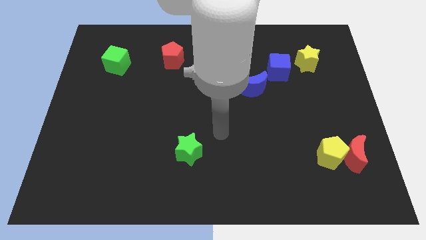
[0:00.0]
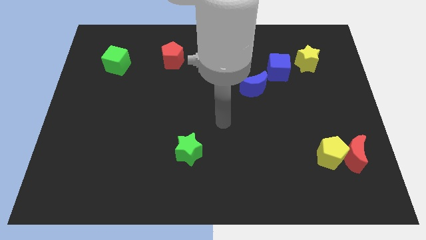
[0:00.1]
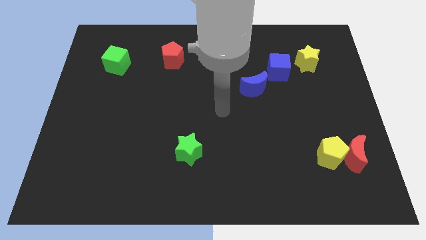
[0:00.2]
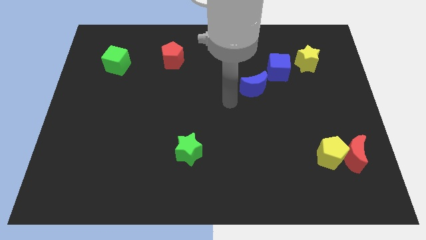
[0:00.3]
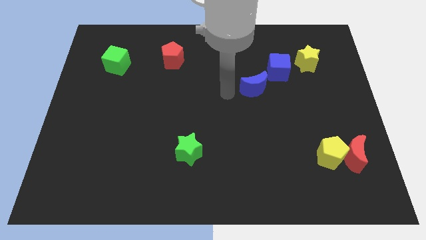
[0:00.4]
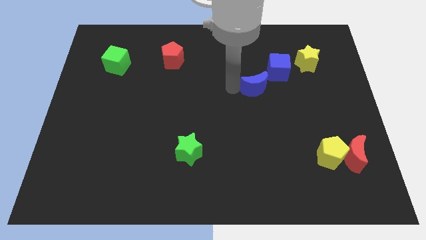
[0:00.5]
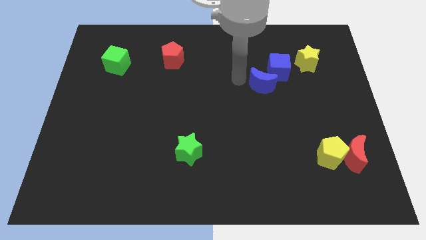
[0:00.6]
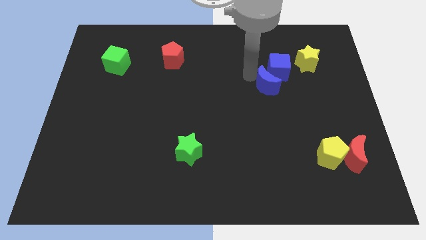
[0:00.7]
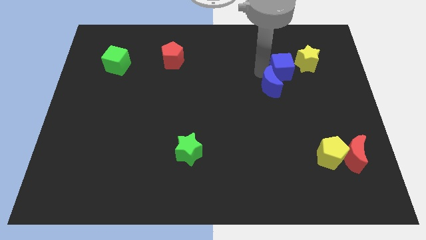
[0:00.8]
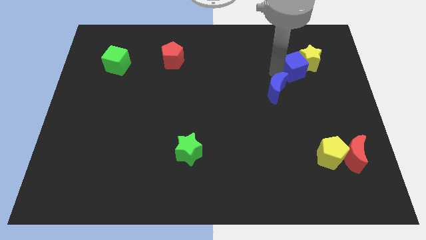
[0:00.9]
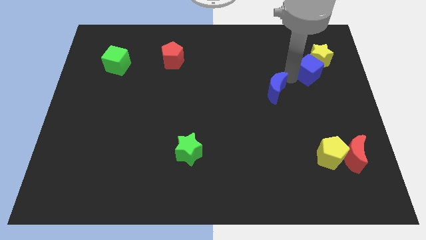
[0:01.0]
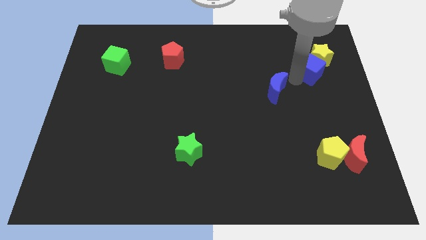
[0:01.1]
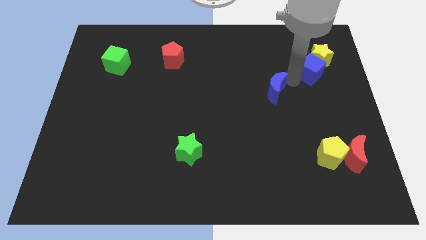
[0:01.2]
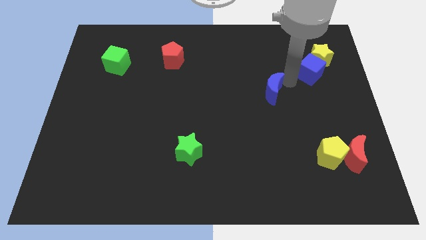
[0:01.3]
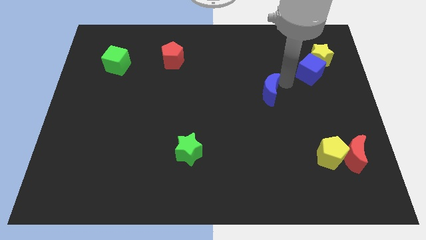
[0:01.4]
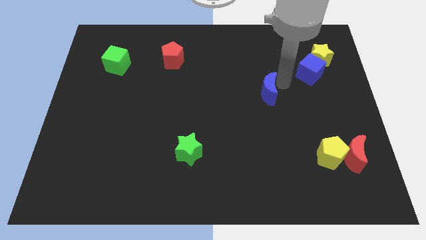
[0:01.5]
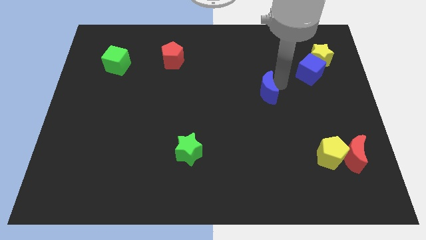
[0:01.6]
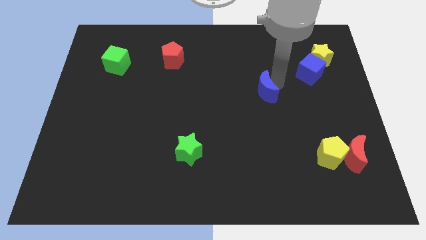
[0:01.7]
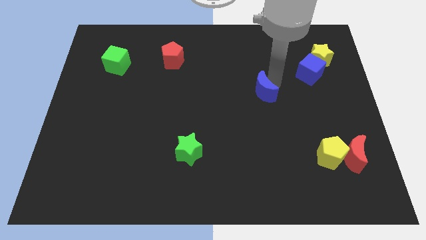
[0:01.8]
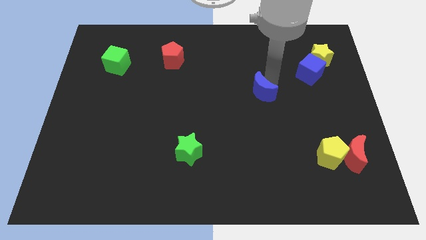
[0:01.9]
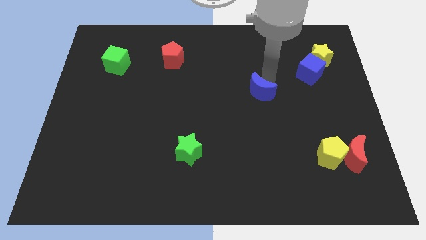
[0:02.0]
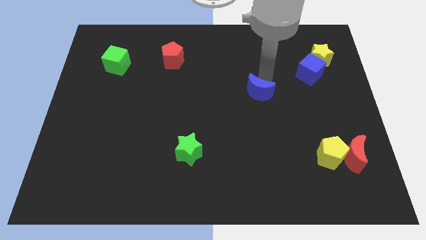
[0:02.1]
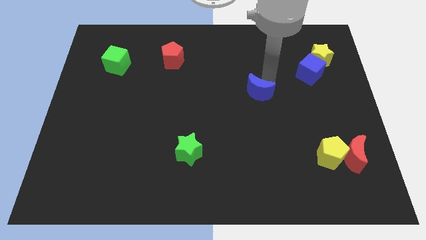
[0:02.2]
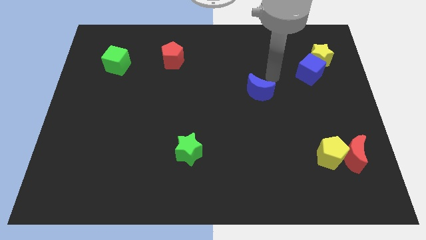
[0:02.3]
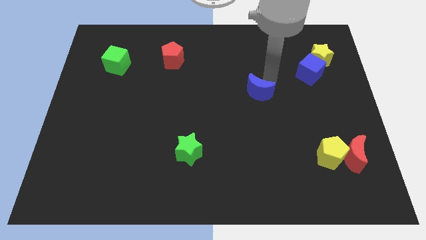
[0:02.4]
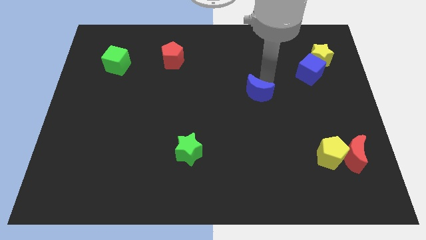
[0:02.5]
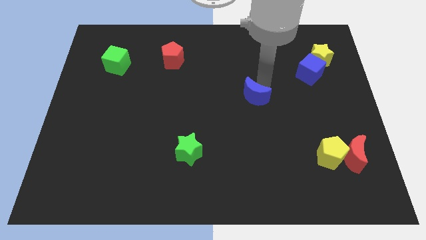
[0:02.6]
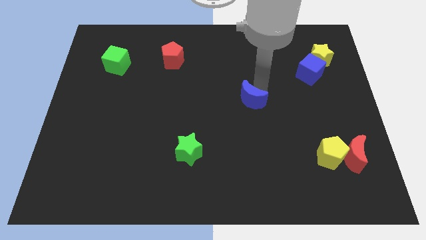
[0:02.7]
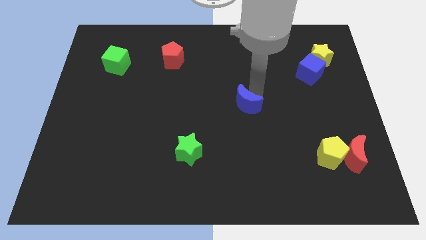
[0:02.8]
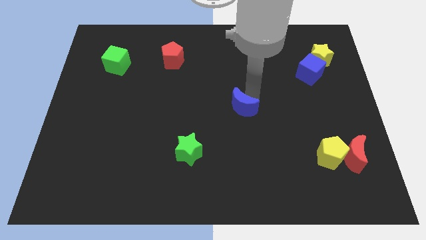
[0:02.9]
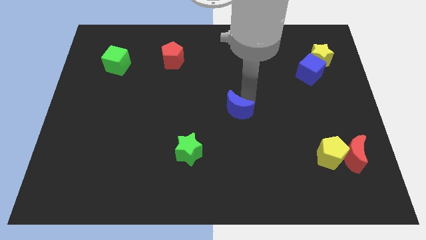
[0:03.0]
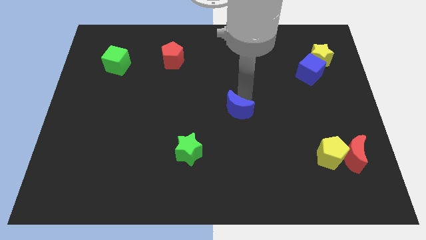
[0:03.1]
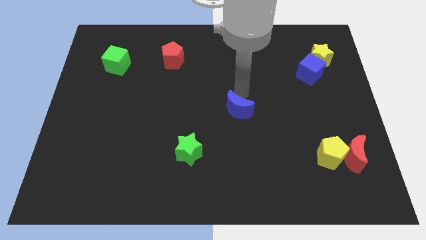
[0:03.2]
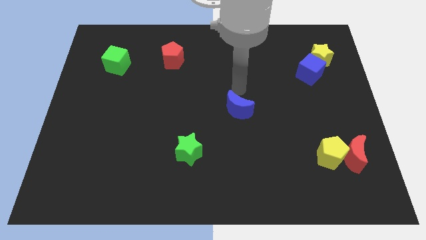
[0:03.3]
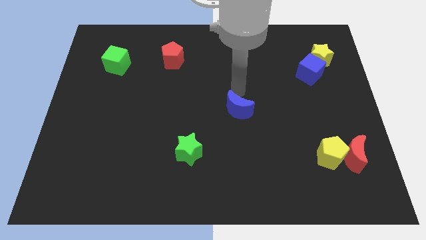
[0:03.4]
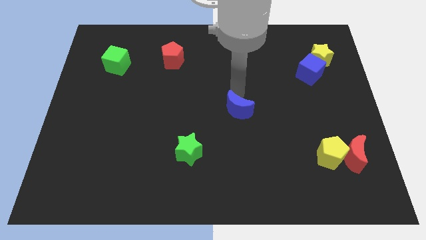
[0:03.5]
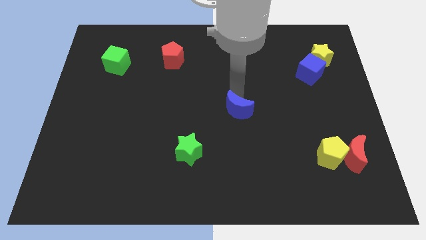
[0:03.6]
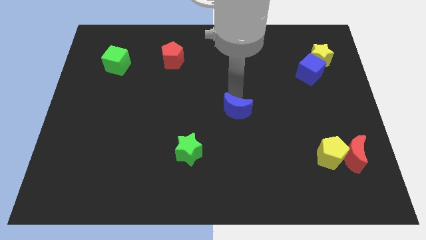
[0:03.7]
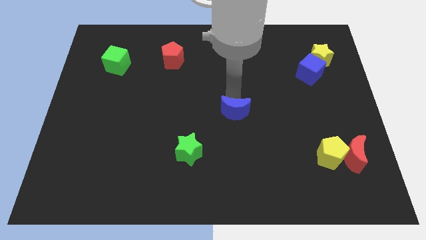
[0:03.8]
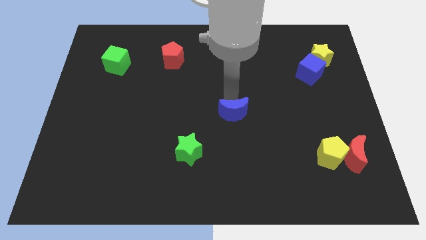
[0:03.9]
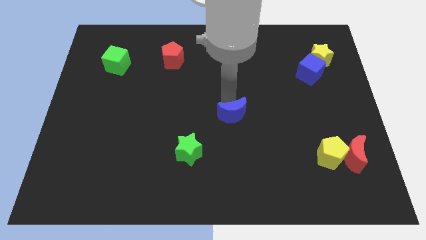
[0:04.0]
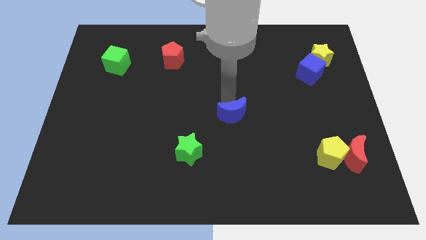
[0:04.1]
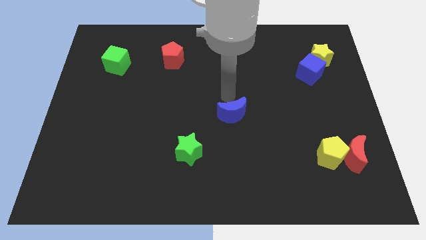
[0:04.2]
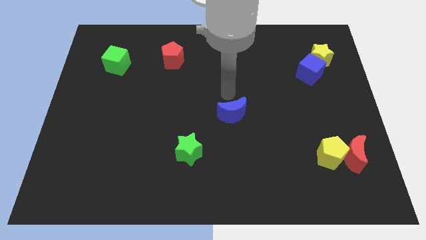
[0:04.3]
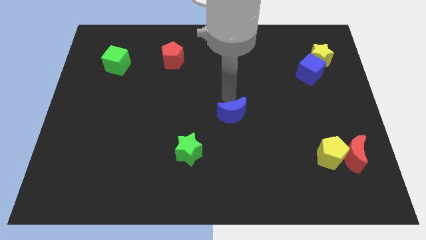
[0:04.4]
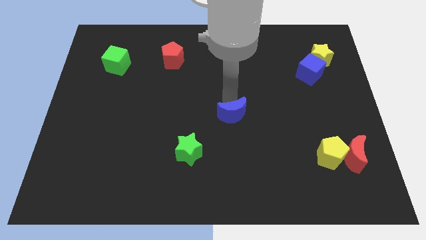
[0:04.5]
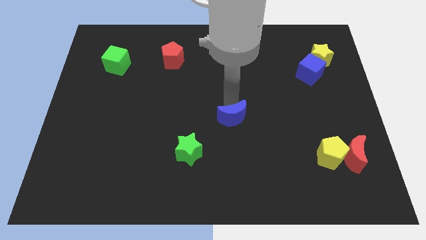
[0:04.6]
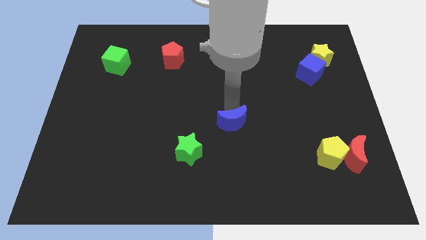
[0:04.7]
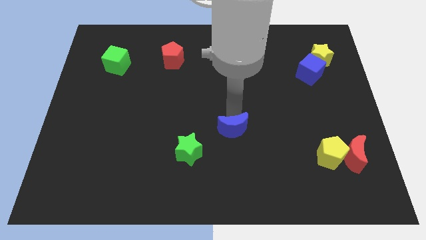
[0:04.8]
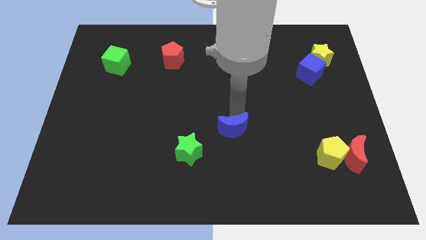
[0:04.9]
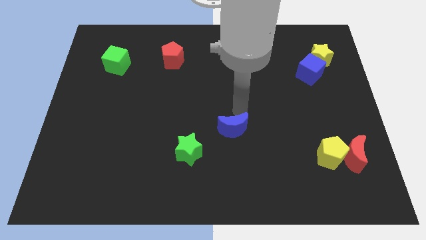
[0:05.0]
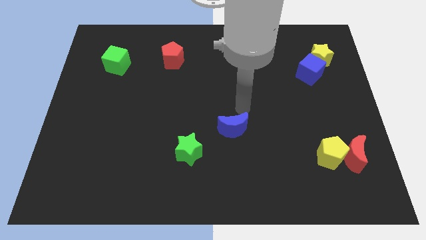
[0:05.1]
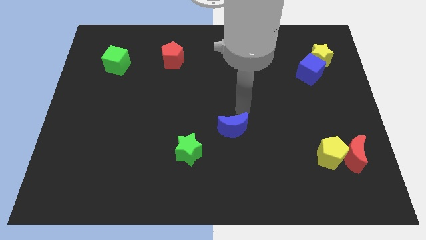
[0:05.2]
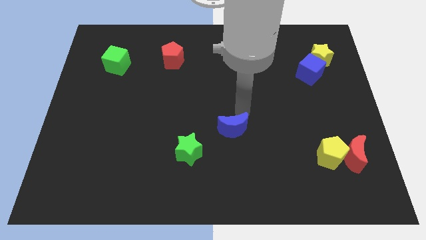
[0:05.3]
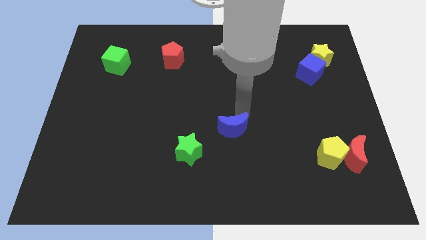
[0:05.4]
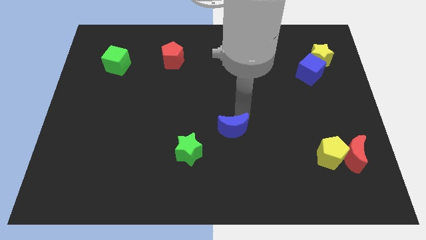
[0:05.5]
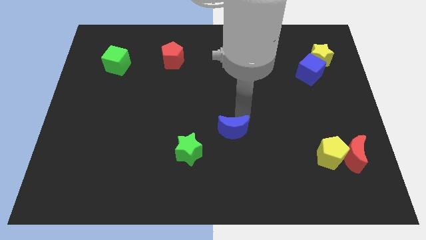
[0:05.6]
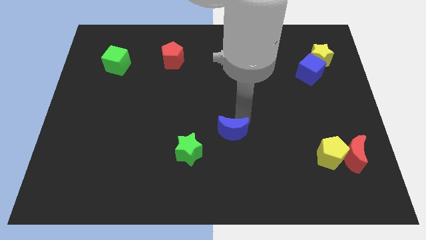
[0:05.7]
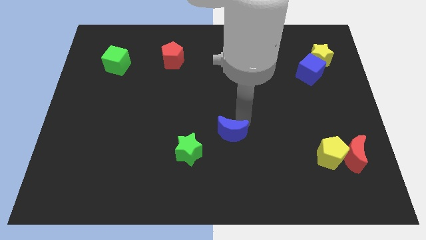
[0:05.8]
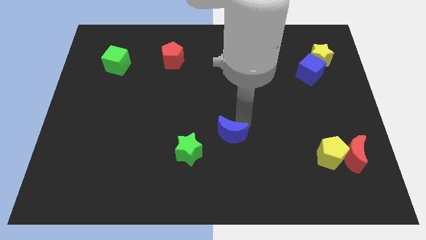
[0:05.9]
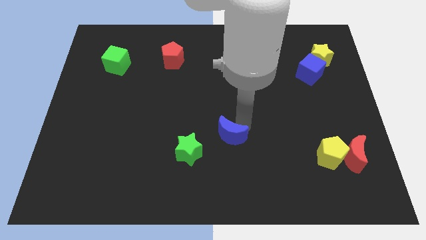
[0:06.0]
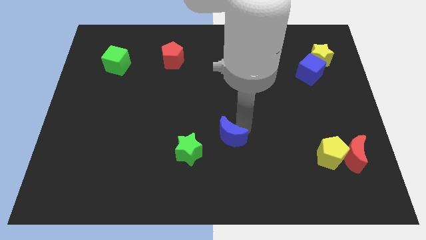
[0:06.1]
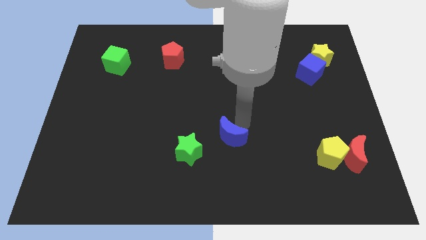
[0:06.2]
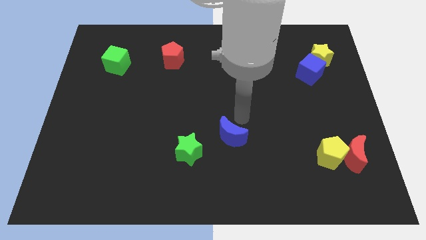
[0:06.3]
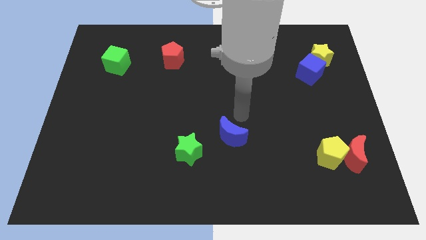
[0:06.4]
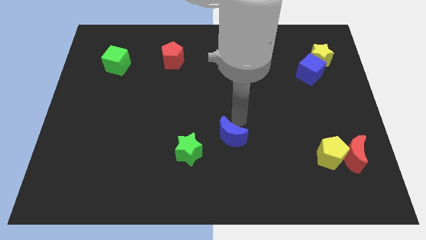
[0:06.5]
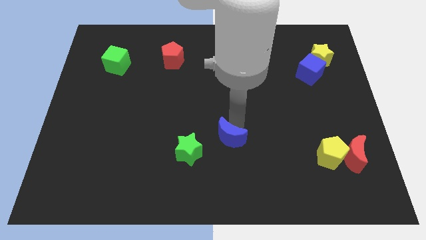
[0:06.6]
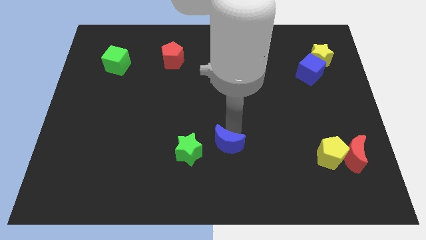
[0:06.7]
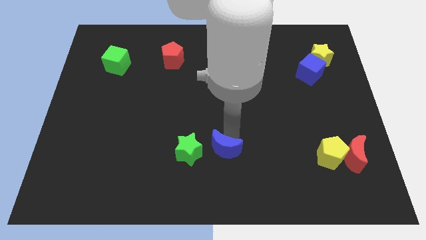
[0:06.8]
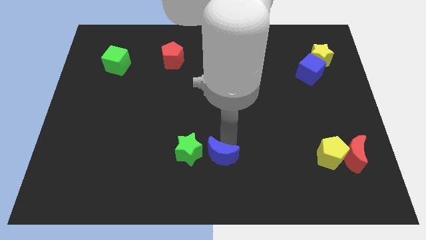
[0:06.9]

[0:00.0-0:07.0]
slide the blue moon to the bottom right of the green star

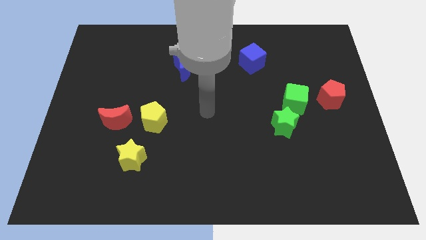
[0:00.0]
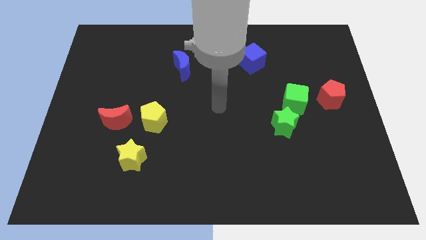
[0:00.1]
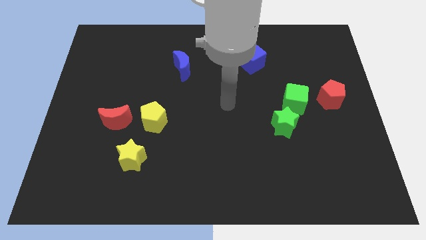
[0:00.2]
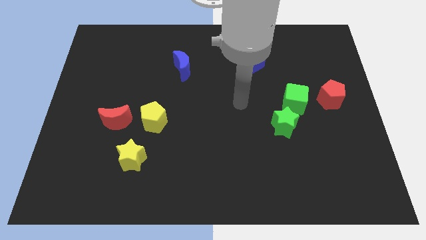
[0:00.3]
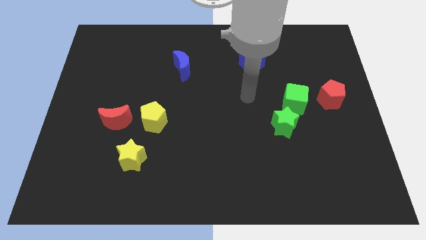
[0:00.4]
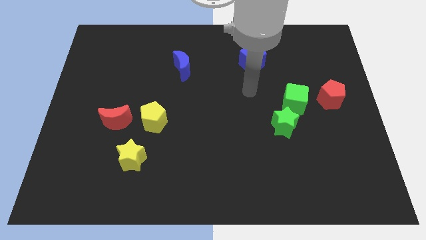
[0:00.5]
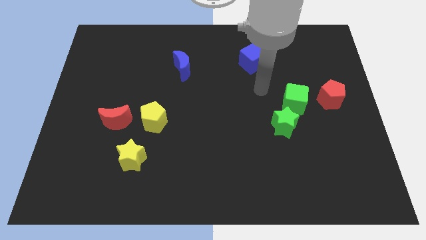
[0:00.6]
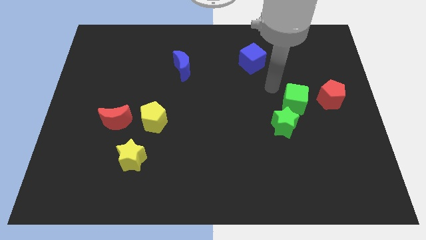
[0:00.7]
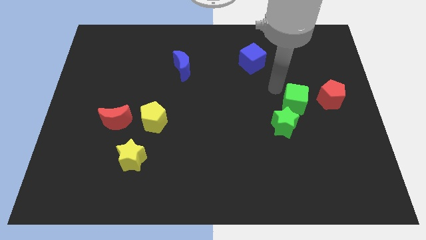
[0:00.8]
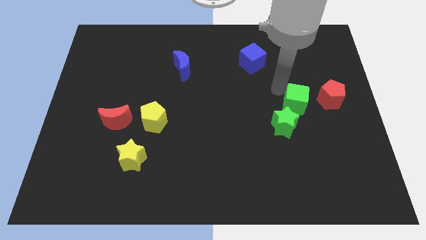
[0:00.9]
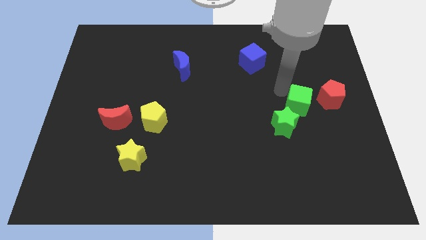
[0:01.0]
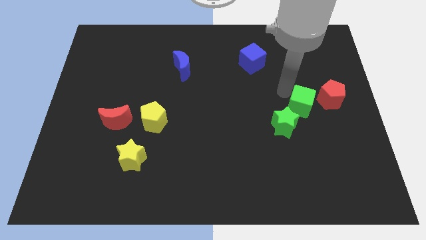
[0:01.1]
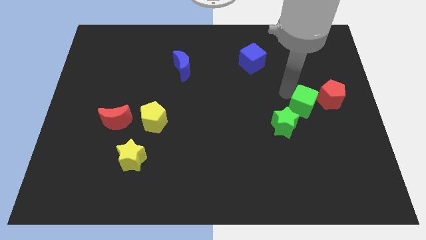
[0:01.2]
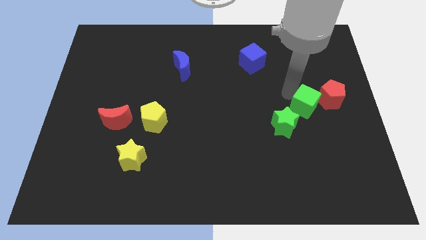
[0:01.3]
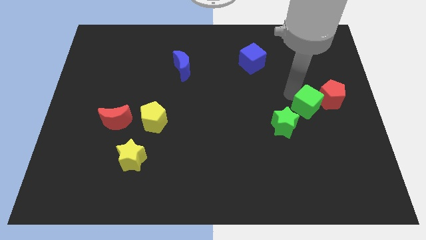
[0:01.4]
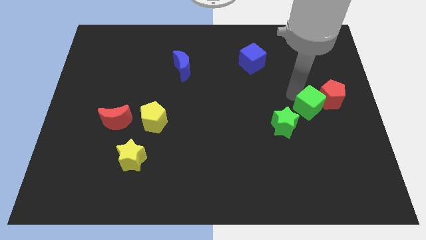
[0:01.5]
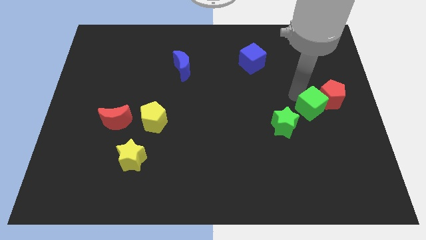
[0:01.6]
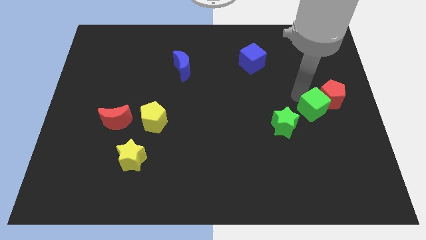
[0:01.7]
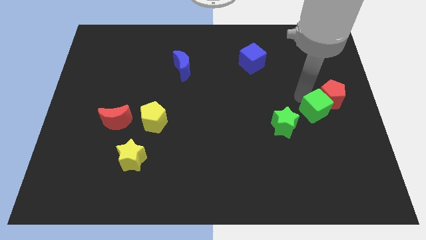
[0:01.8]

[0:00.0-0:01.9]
push the green cube to the right side of the green star
